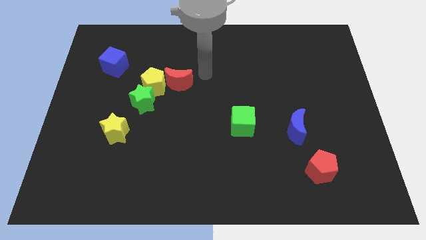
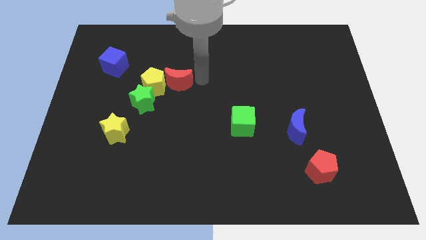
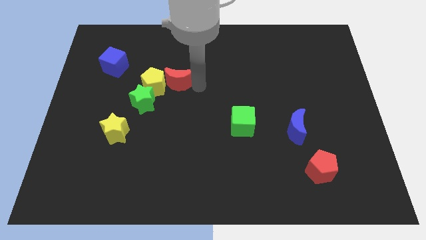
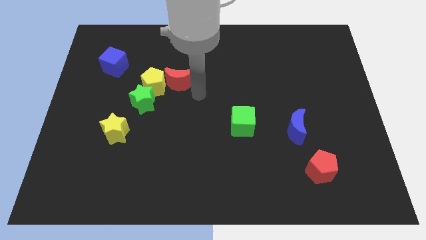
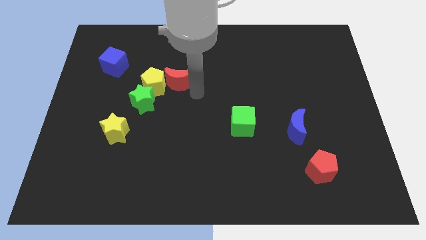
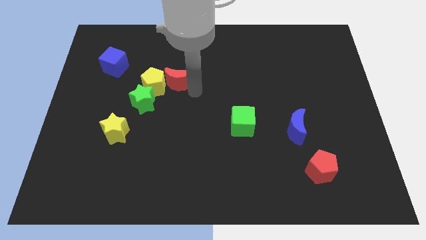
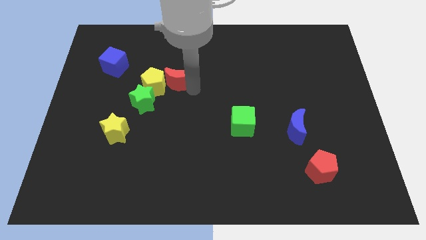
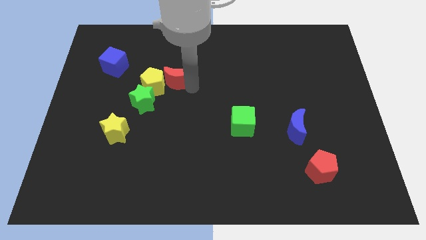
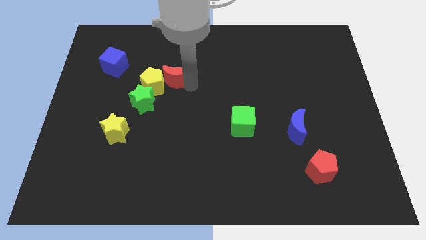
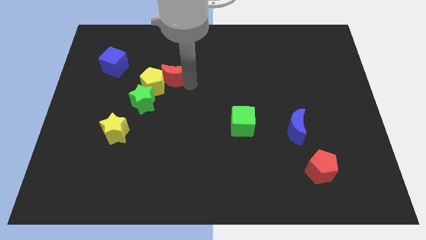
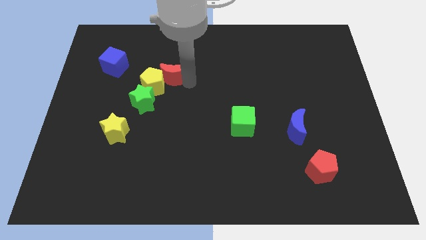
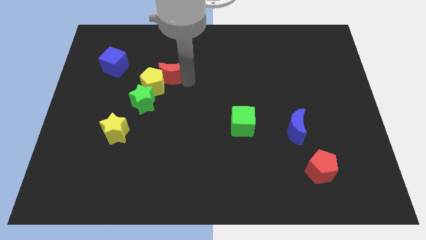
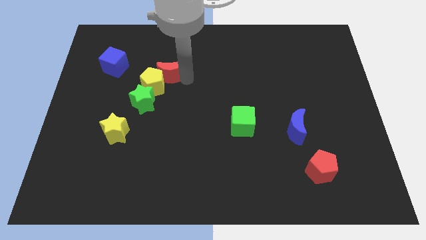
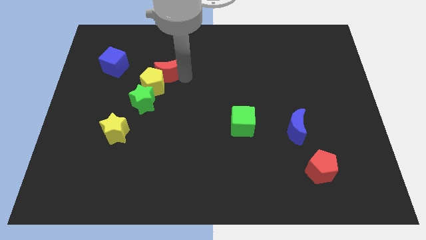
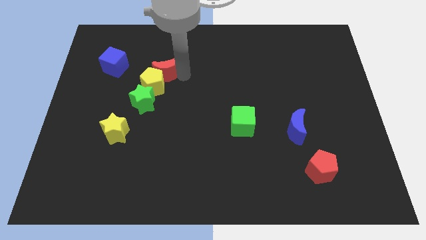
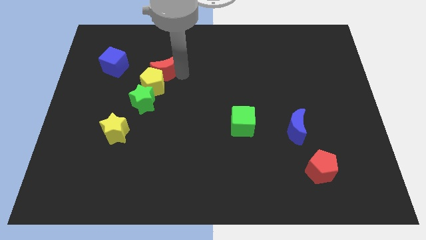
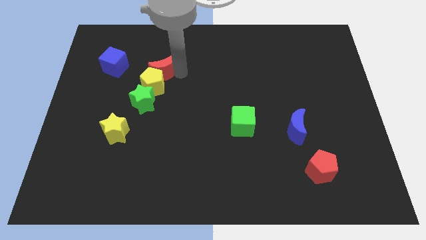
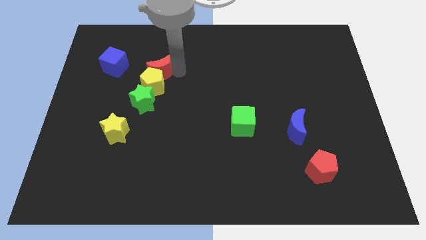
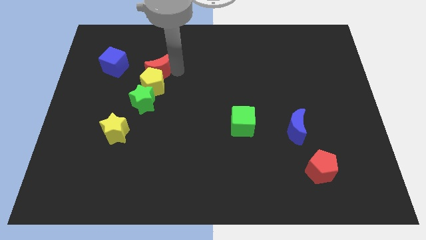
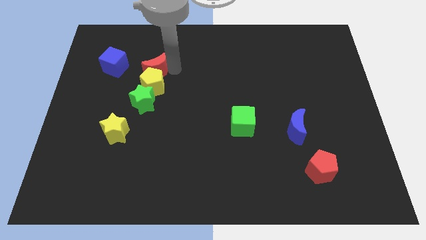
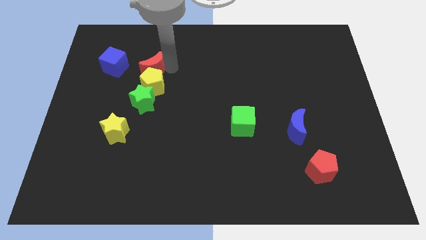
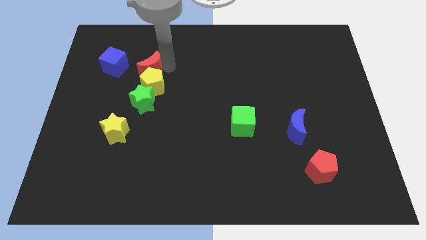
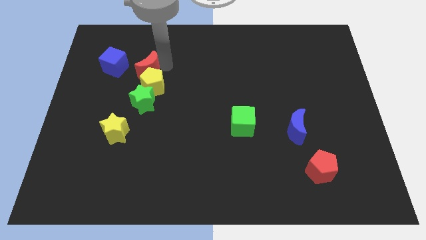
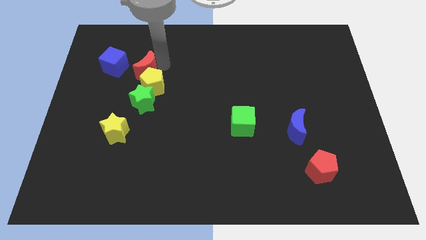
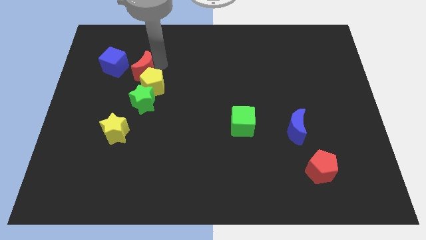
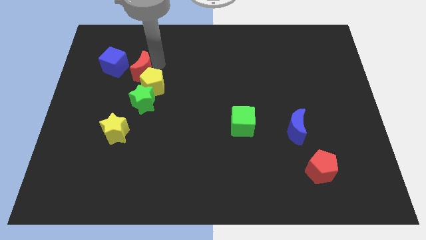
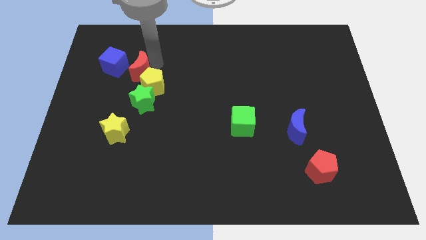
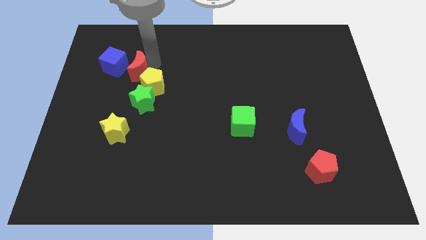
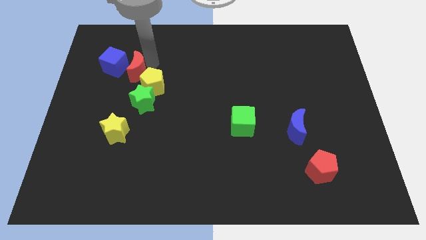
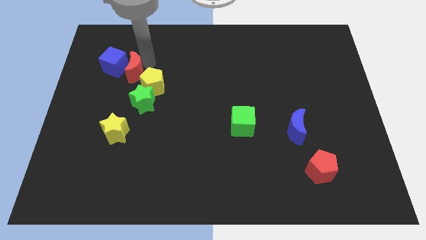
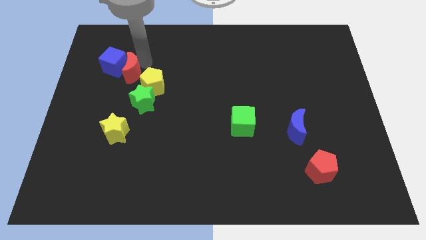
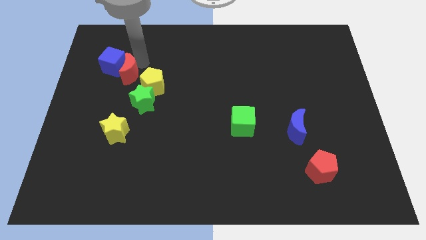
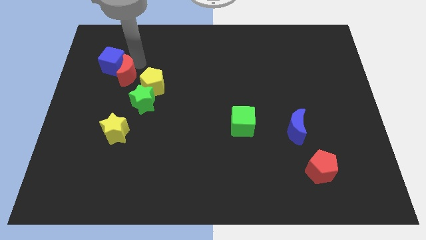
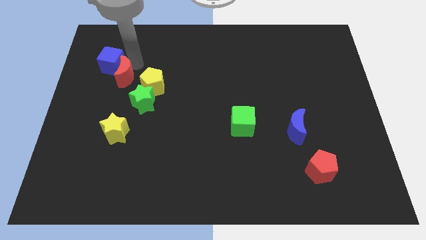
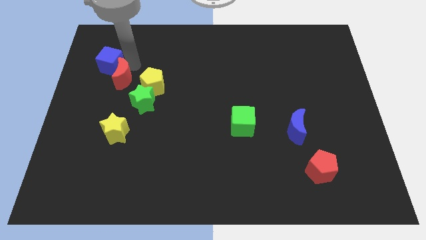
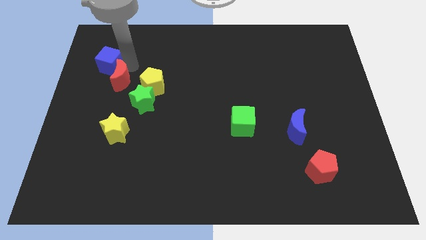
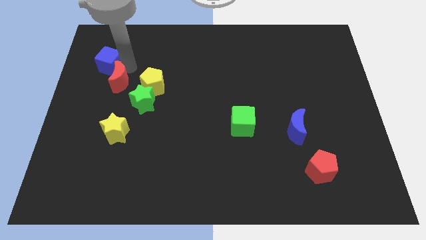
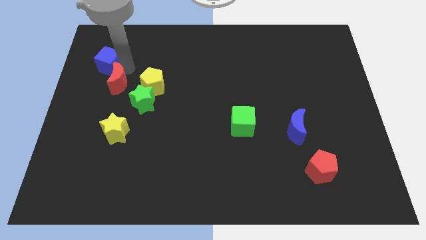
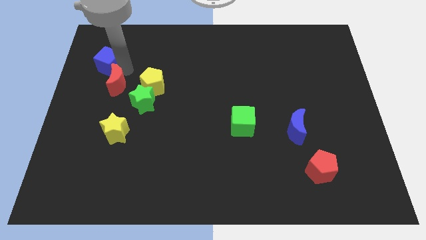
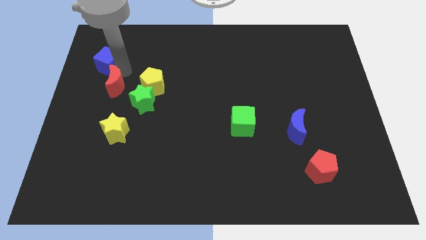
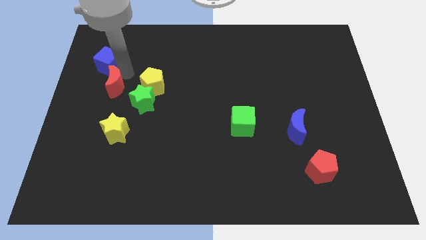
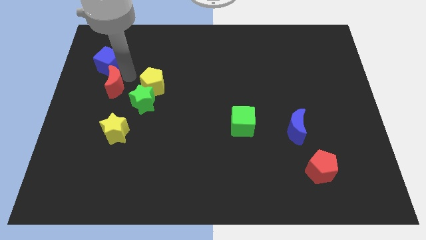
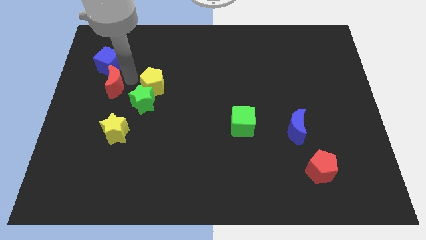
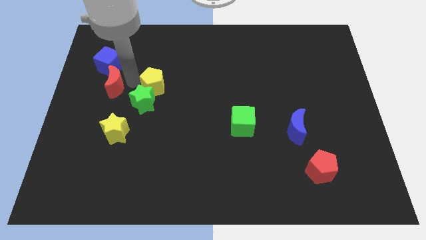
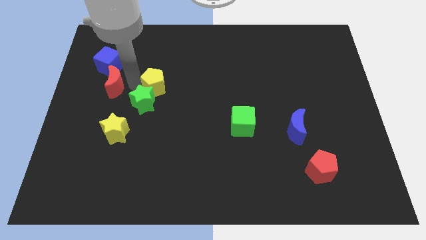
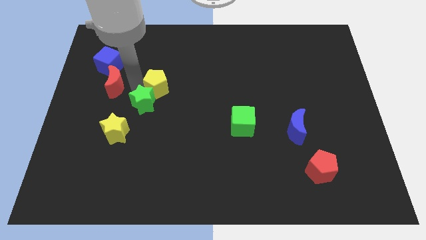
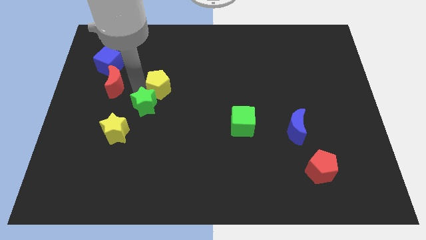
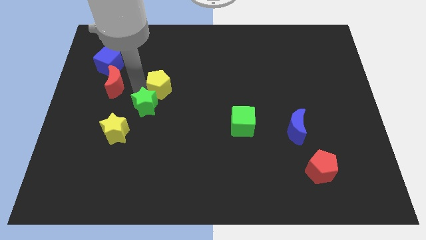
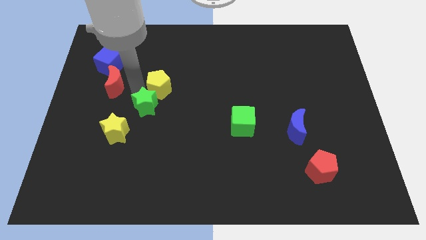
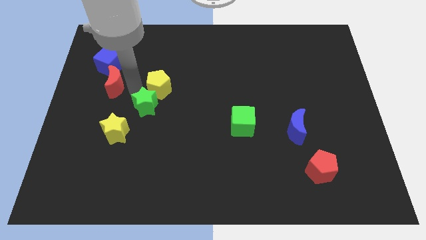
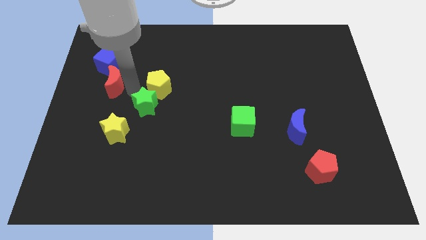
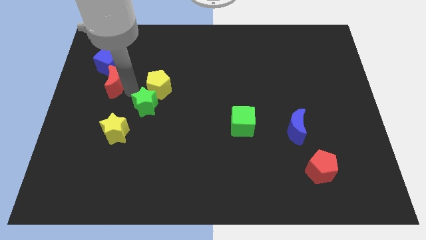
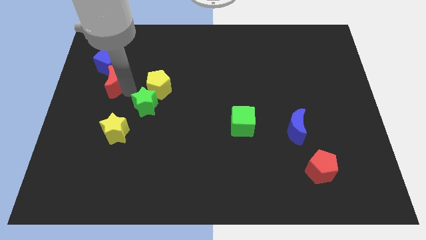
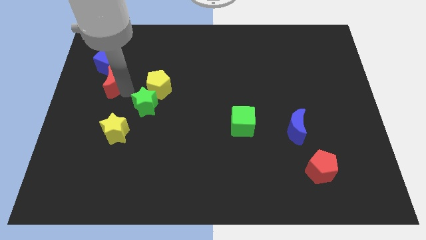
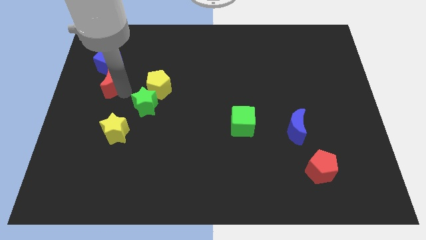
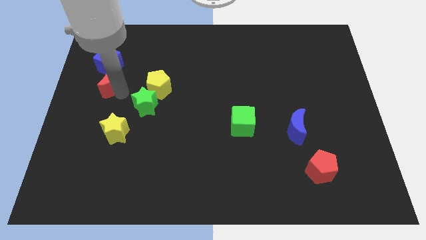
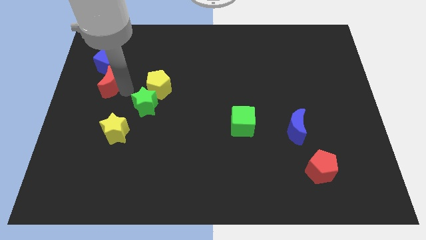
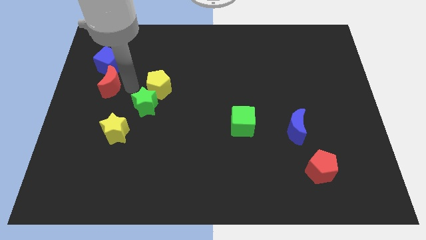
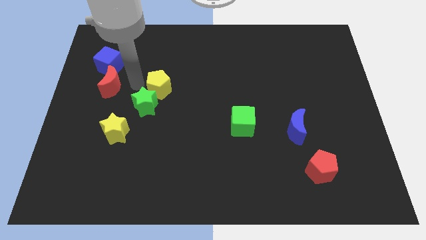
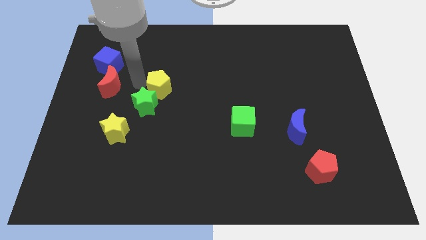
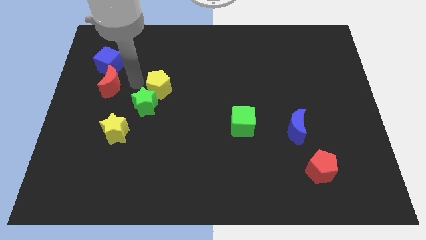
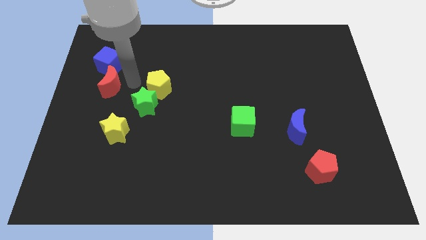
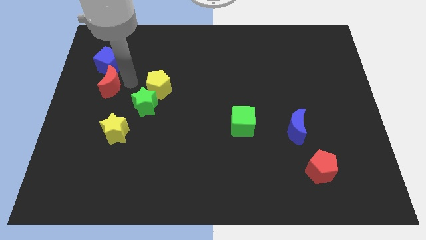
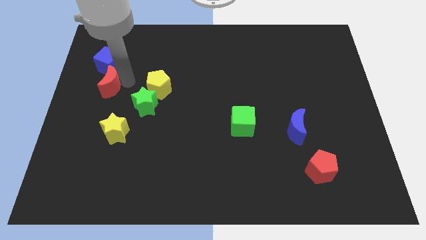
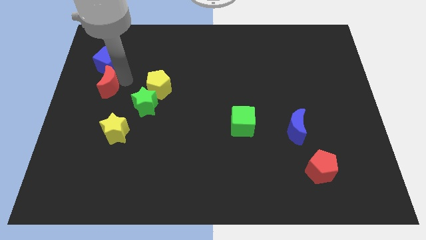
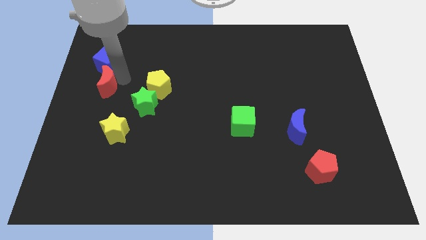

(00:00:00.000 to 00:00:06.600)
slide the red moon to the left side
